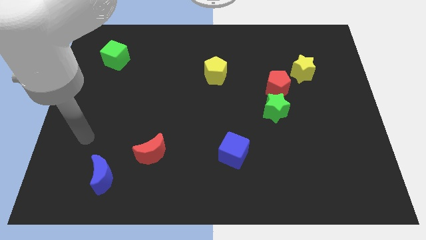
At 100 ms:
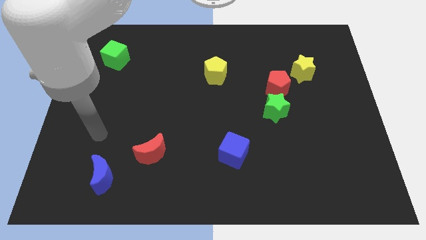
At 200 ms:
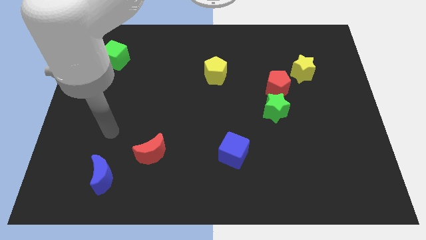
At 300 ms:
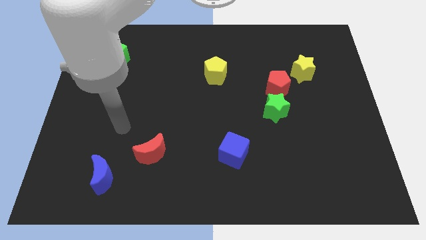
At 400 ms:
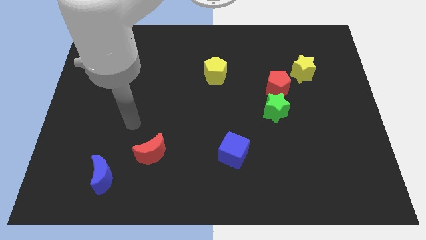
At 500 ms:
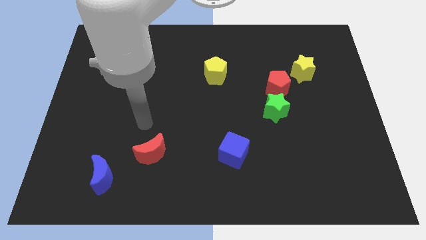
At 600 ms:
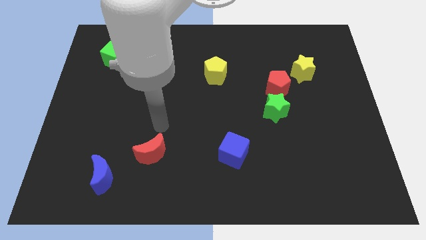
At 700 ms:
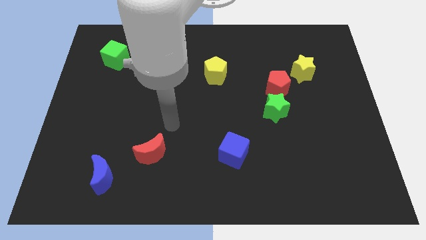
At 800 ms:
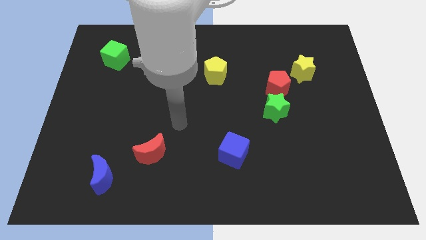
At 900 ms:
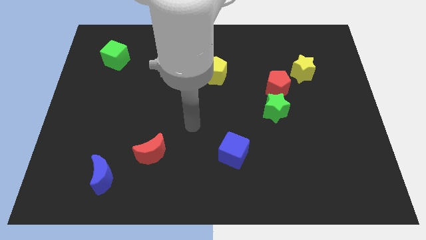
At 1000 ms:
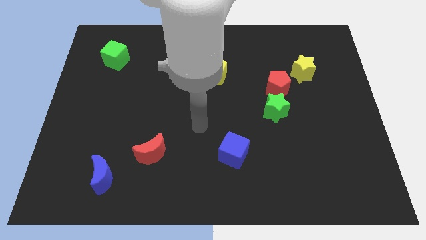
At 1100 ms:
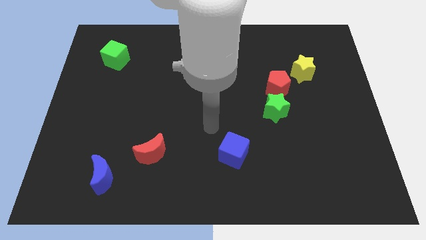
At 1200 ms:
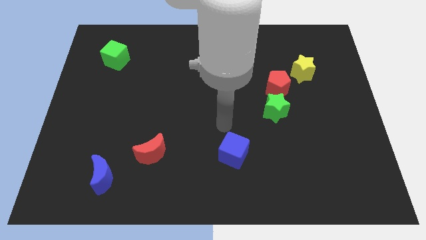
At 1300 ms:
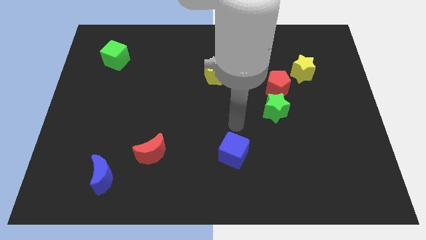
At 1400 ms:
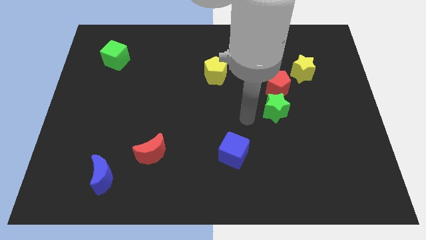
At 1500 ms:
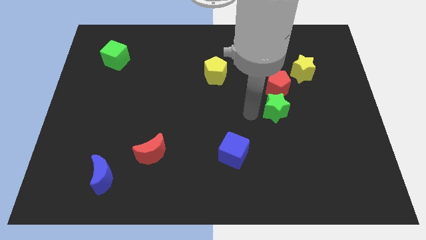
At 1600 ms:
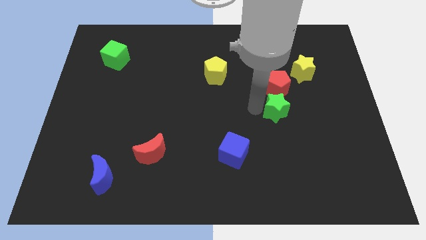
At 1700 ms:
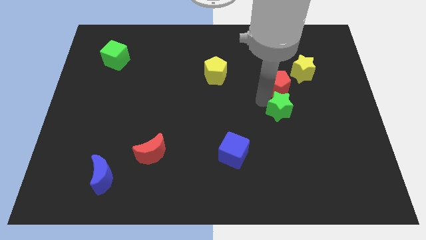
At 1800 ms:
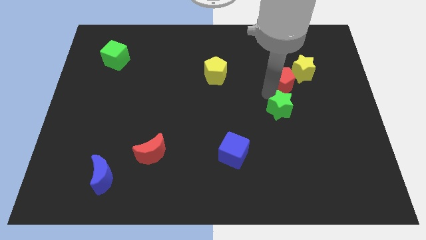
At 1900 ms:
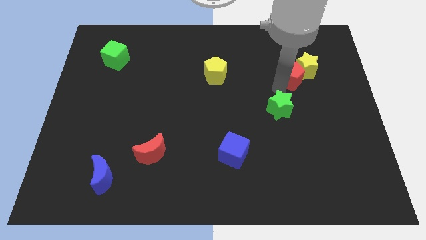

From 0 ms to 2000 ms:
separate the green star from the red pentagon

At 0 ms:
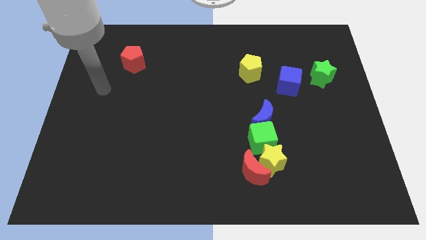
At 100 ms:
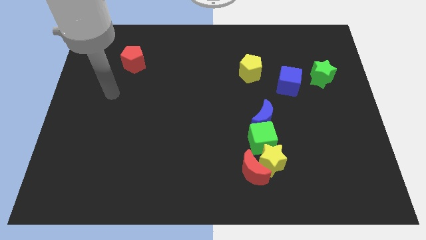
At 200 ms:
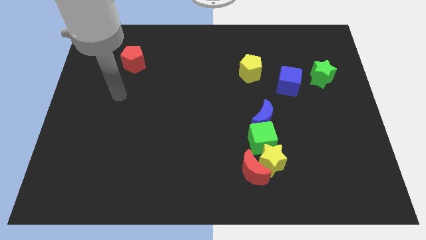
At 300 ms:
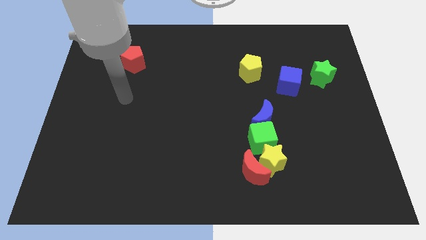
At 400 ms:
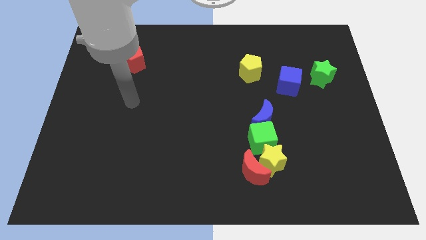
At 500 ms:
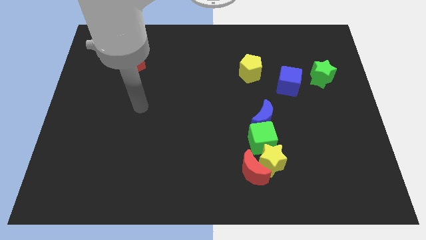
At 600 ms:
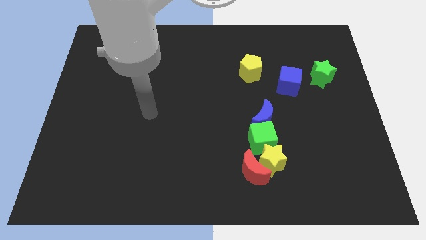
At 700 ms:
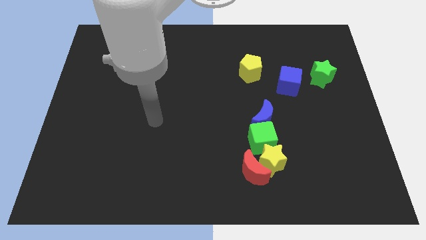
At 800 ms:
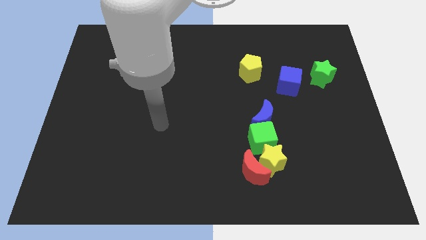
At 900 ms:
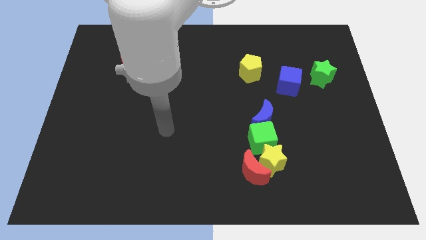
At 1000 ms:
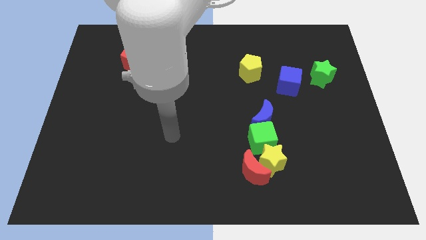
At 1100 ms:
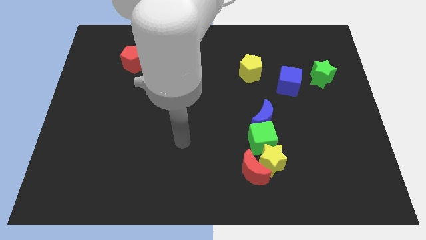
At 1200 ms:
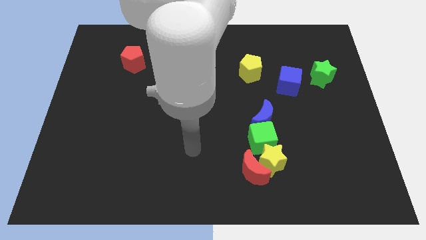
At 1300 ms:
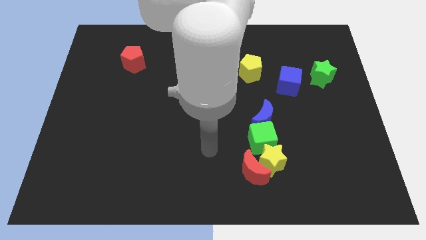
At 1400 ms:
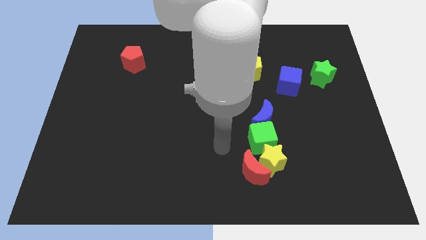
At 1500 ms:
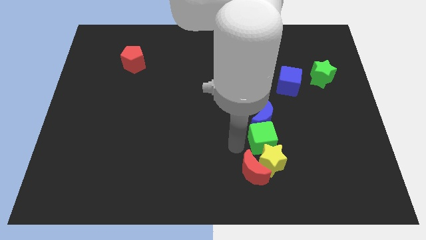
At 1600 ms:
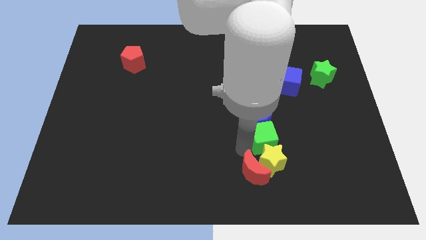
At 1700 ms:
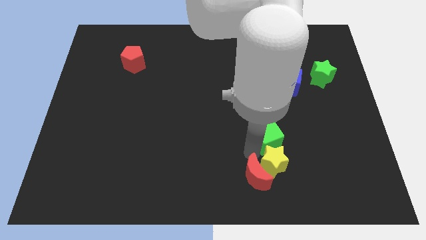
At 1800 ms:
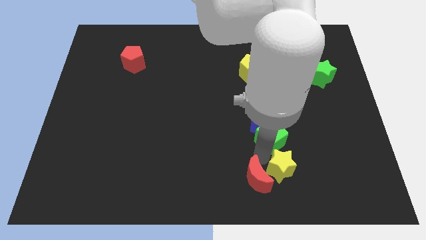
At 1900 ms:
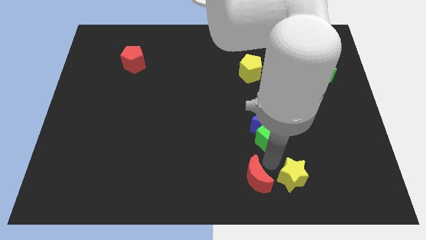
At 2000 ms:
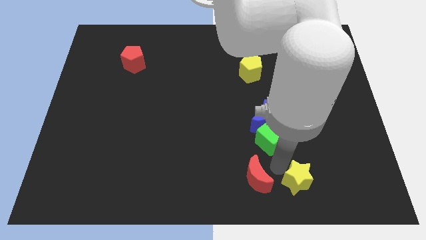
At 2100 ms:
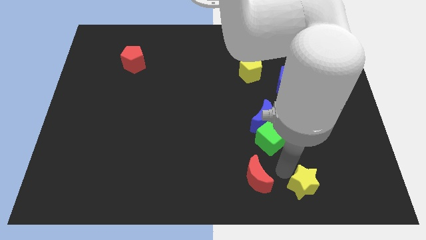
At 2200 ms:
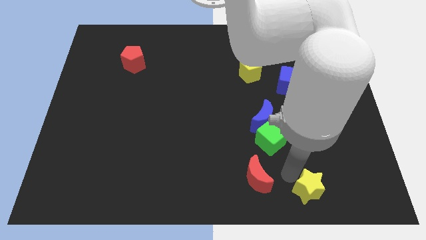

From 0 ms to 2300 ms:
move the yellow star away from the red moon and green cube

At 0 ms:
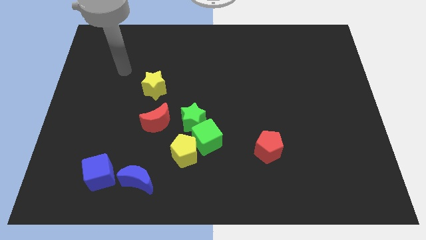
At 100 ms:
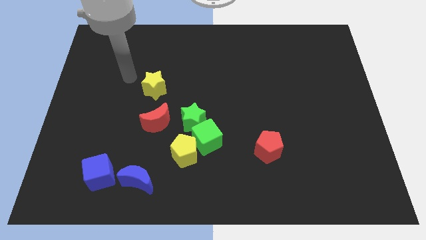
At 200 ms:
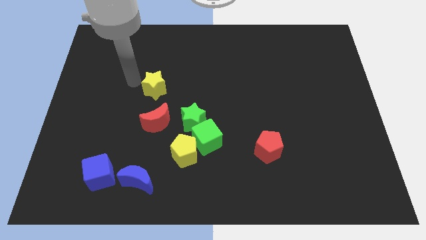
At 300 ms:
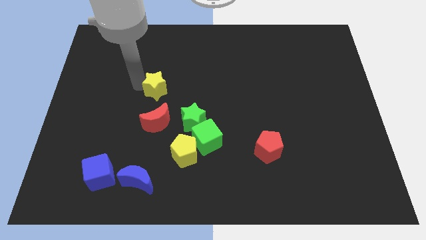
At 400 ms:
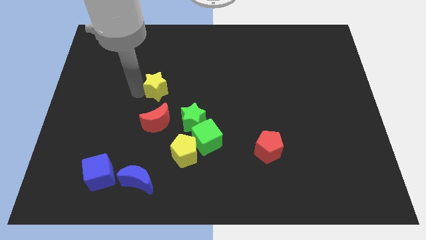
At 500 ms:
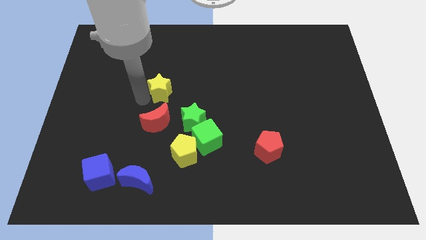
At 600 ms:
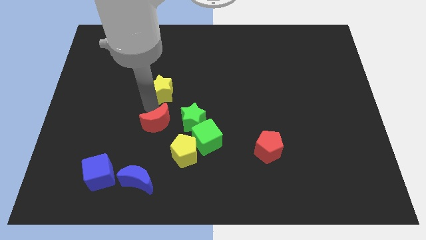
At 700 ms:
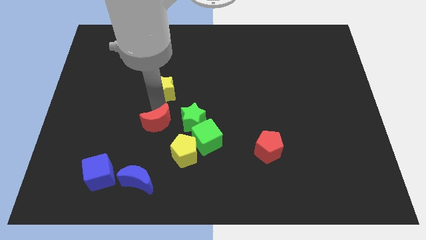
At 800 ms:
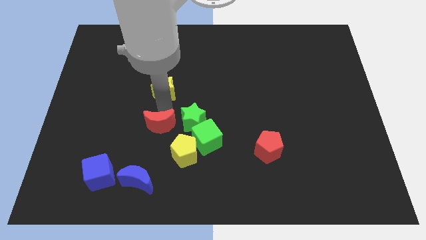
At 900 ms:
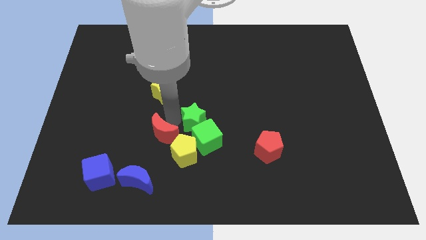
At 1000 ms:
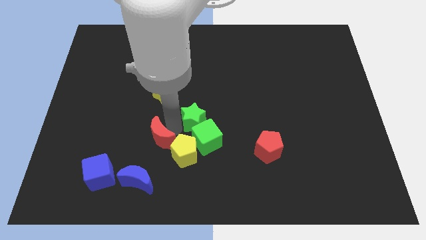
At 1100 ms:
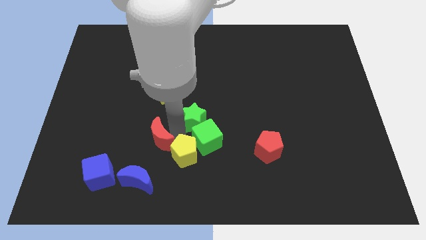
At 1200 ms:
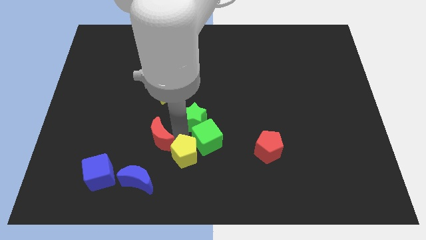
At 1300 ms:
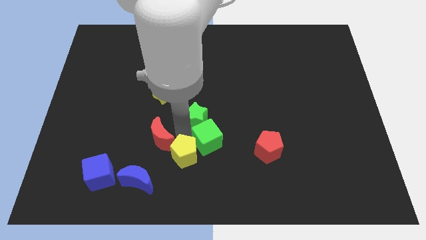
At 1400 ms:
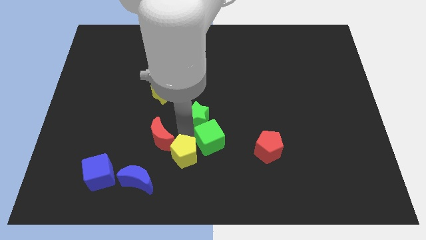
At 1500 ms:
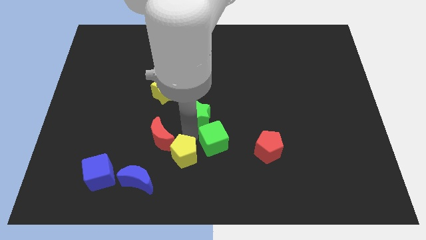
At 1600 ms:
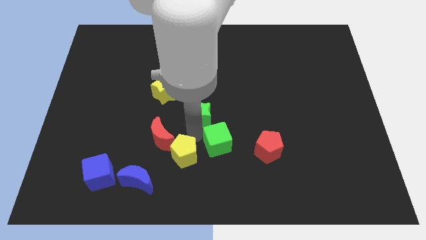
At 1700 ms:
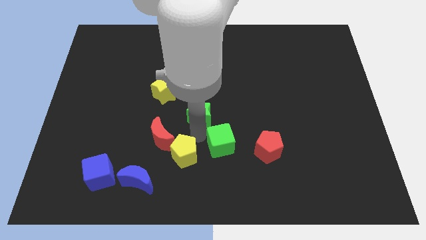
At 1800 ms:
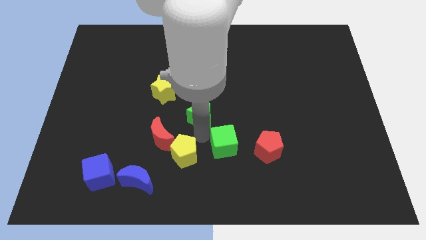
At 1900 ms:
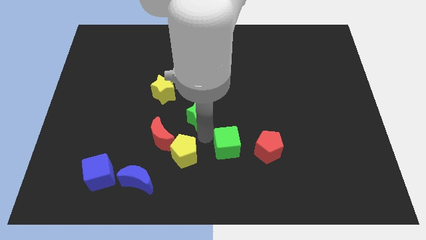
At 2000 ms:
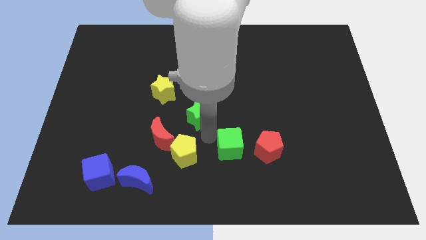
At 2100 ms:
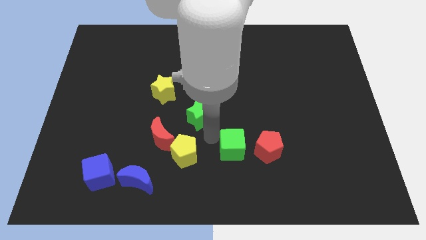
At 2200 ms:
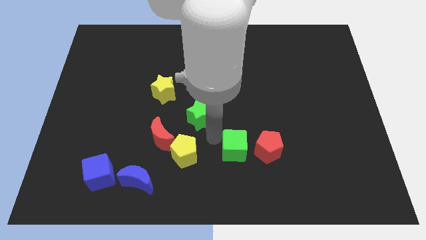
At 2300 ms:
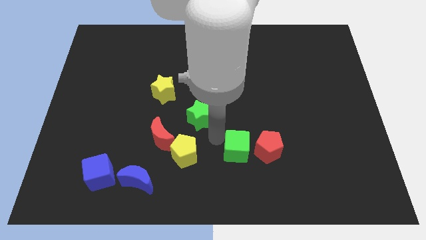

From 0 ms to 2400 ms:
separate the green cube from the yellow pentagon and green star

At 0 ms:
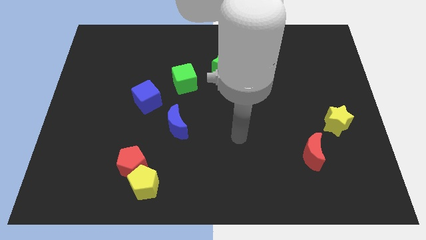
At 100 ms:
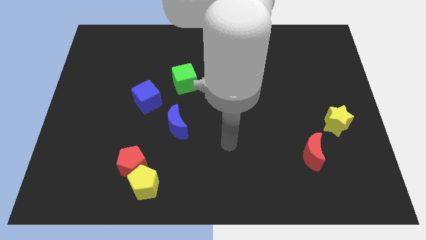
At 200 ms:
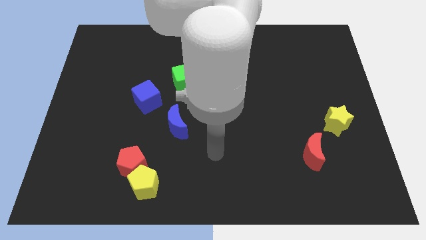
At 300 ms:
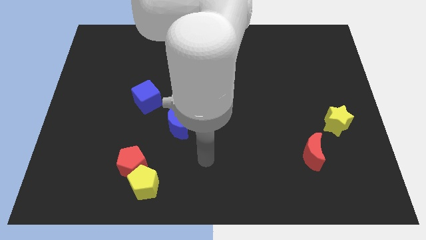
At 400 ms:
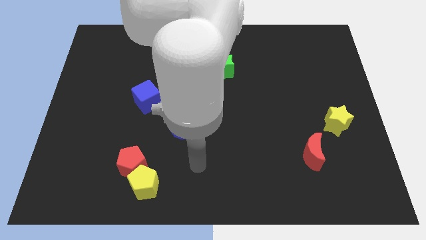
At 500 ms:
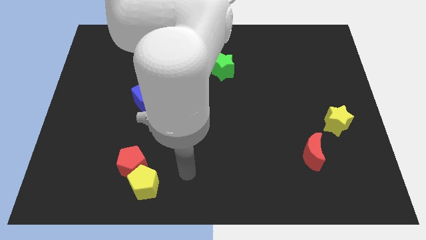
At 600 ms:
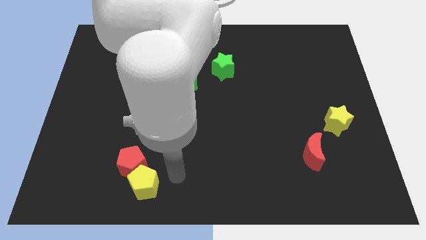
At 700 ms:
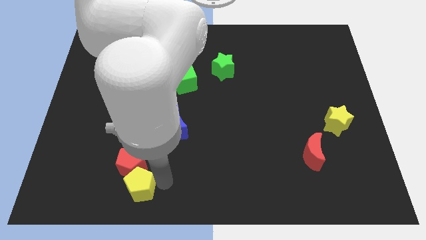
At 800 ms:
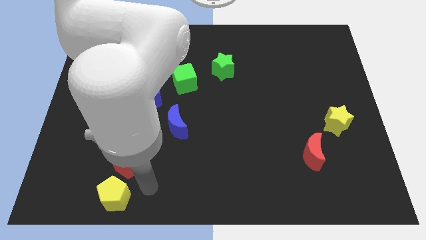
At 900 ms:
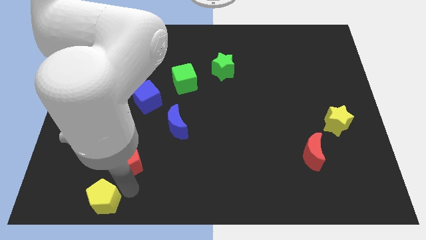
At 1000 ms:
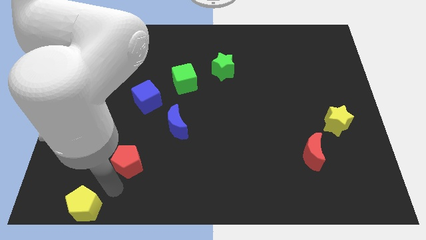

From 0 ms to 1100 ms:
separate the red pentagon from the yellow pentagon

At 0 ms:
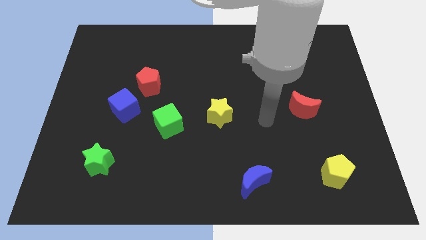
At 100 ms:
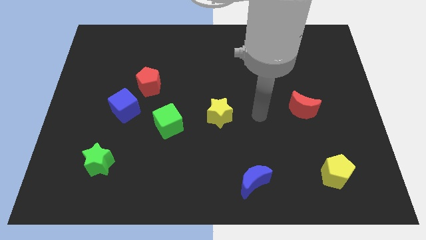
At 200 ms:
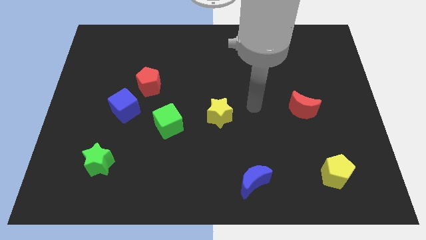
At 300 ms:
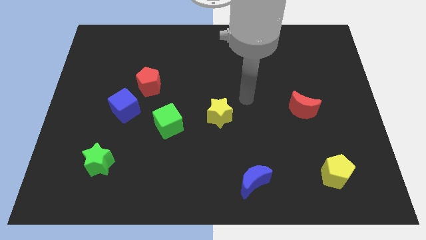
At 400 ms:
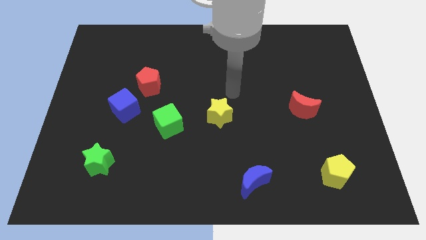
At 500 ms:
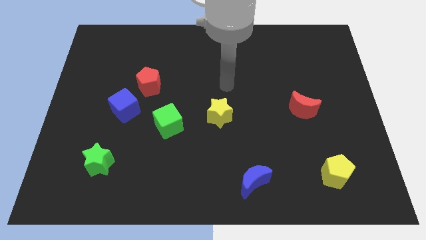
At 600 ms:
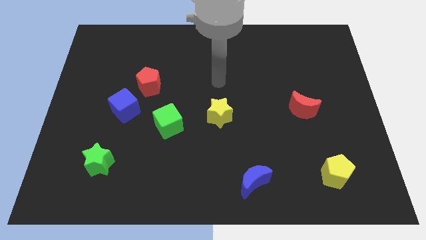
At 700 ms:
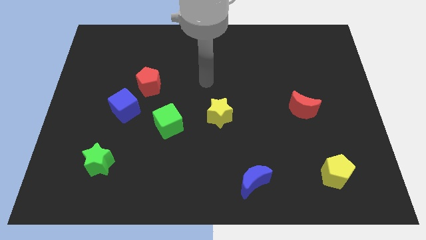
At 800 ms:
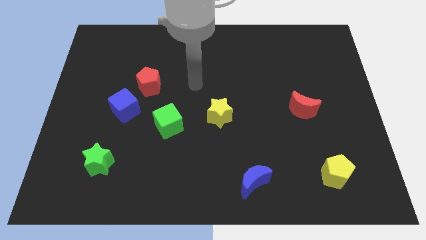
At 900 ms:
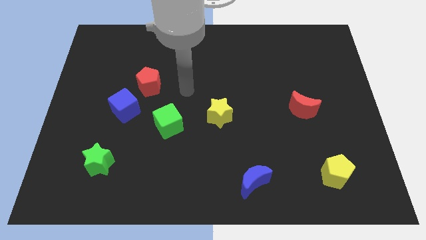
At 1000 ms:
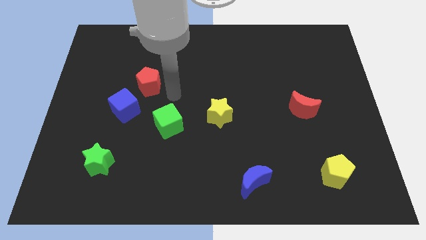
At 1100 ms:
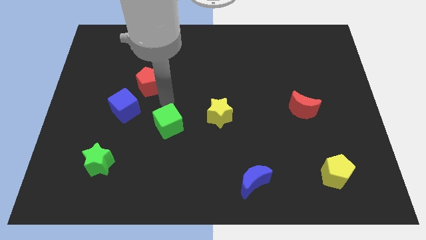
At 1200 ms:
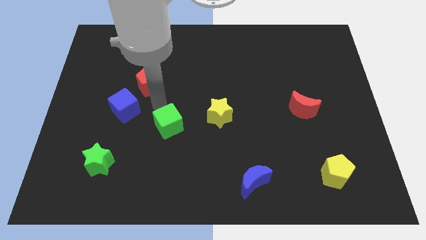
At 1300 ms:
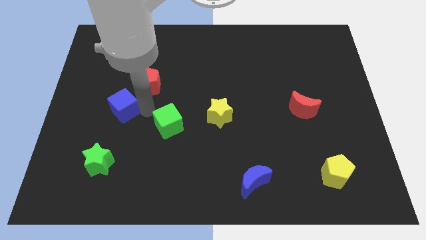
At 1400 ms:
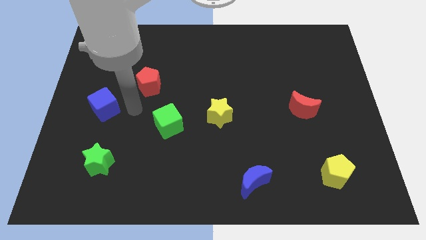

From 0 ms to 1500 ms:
separate the red pentagon from the blue cube
